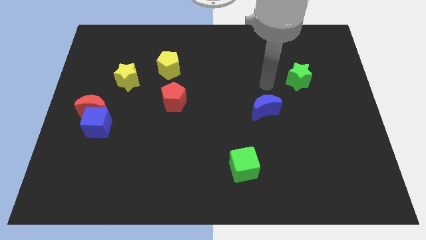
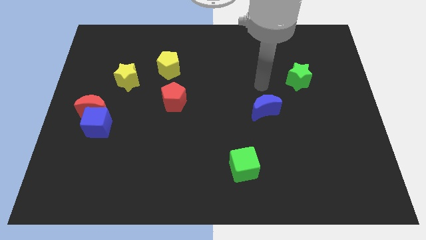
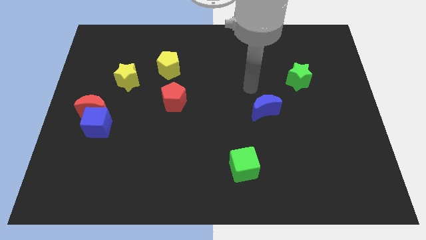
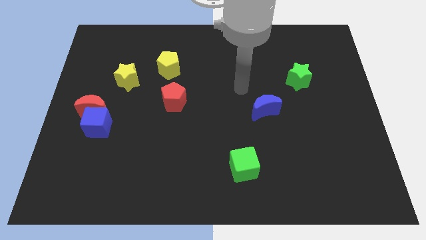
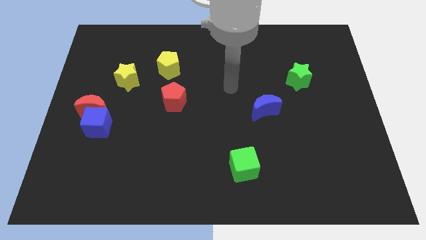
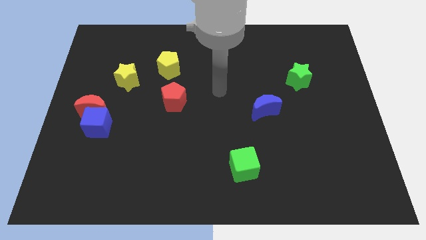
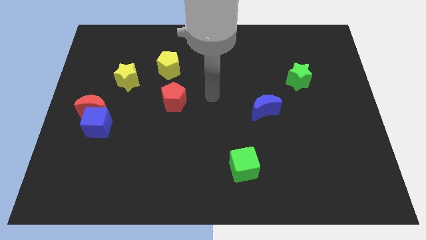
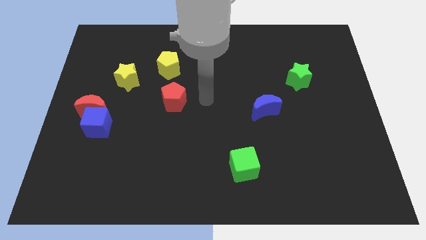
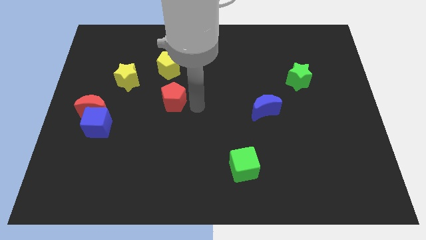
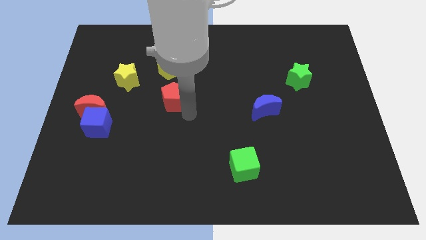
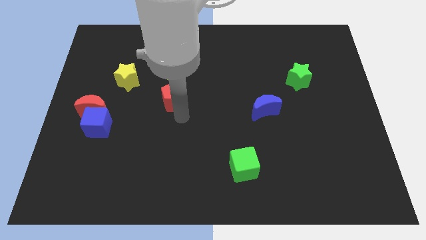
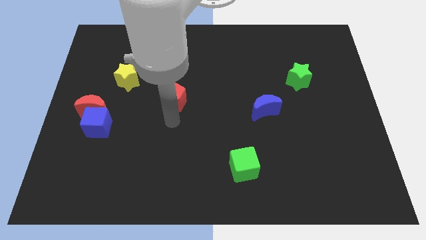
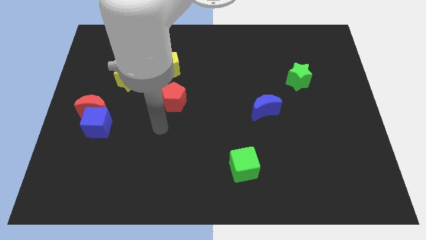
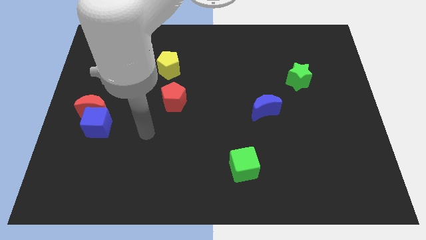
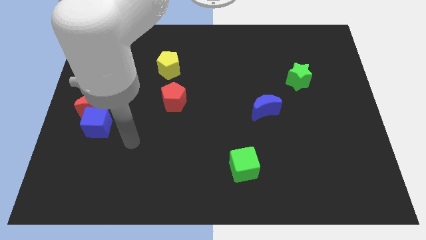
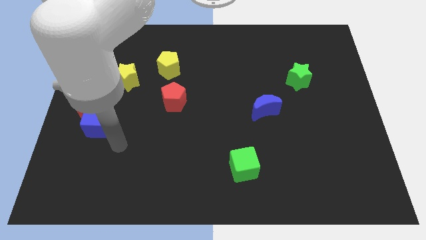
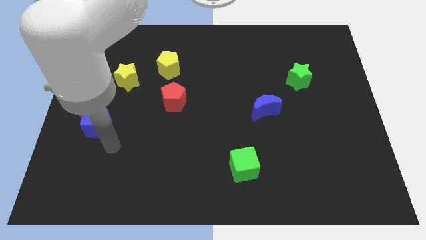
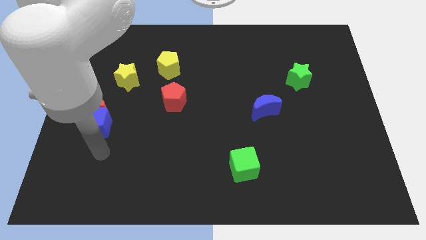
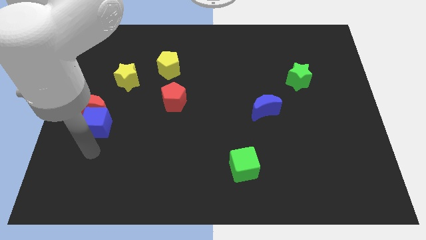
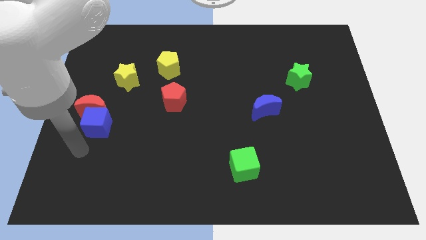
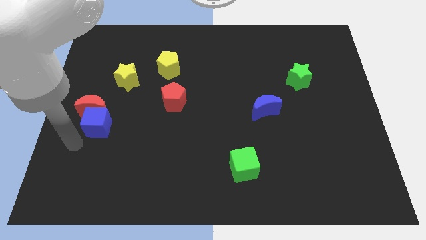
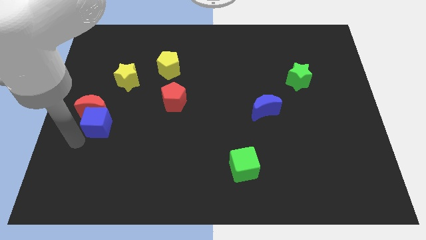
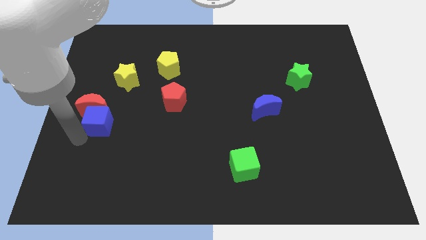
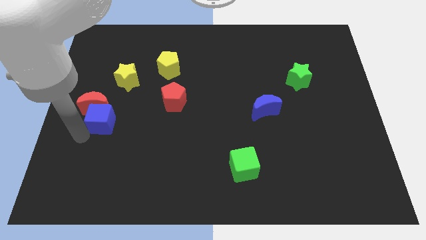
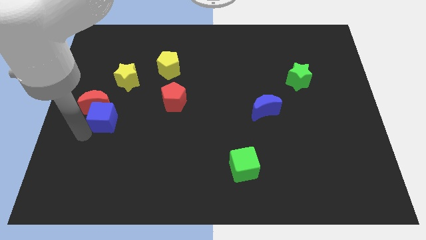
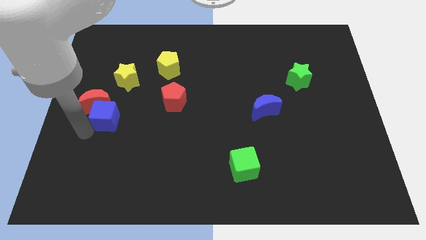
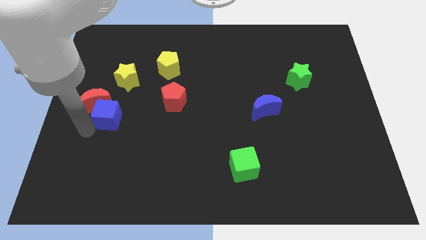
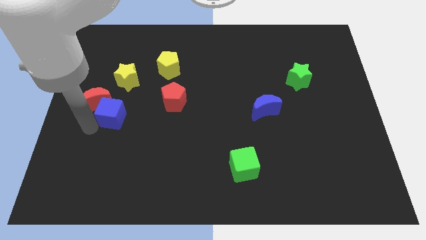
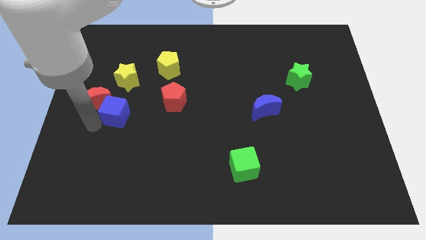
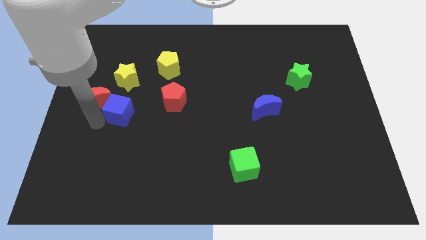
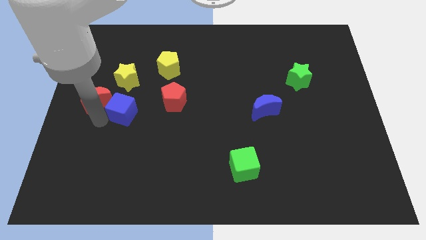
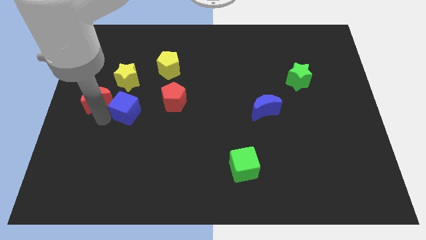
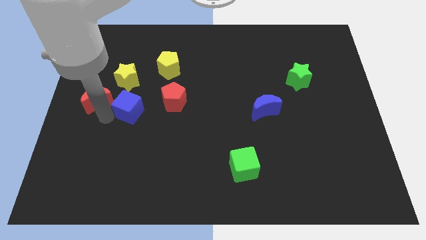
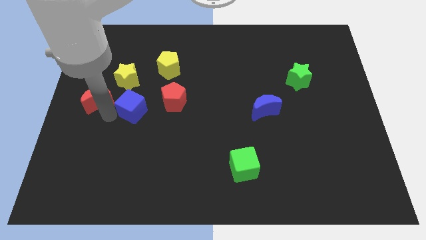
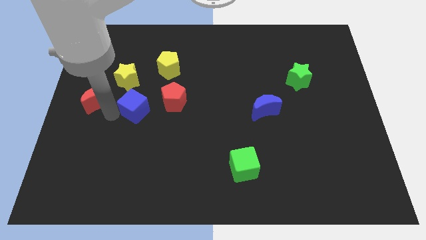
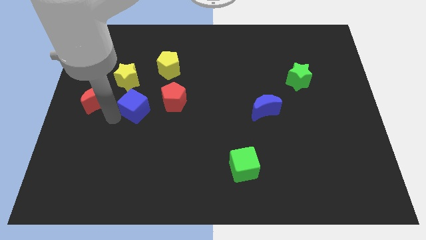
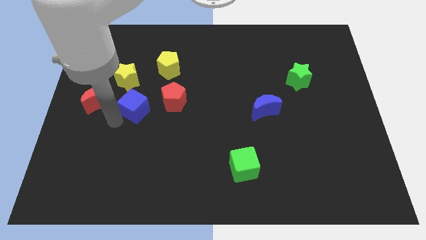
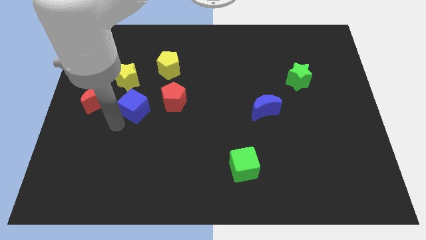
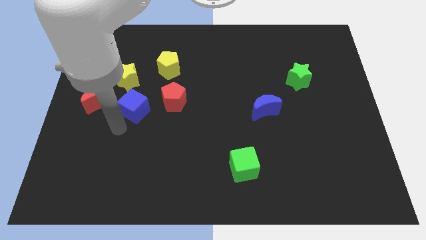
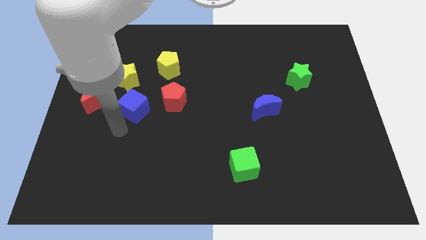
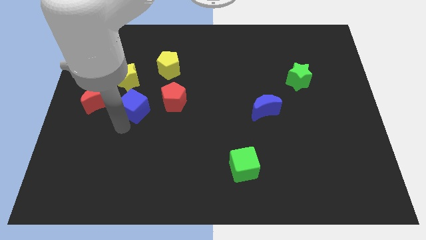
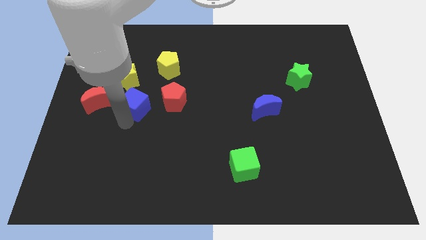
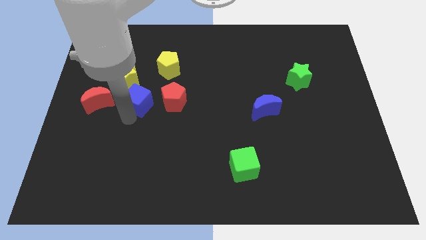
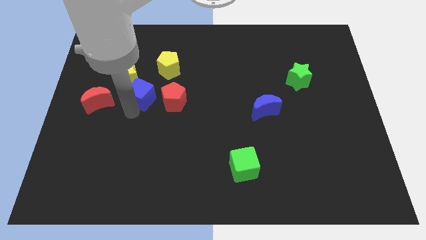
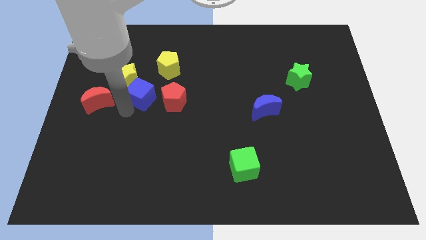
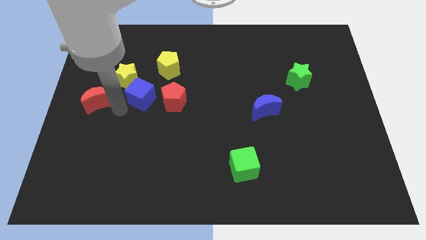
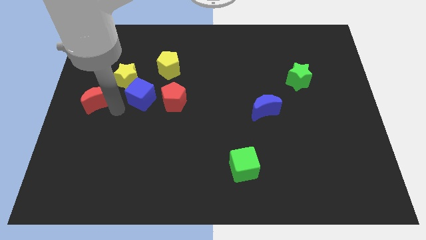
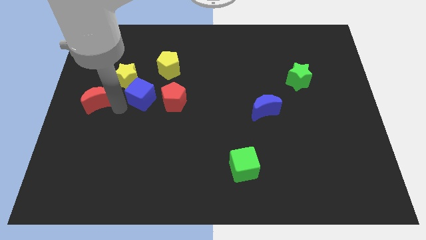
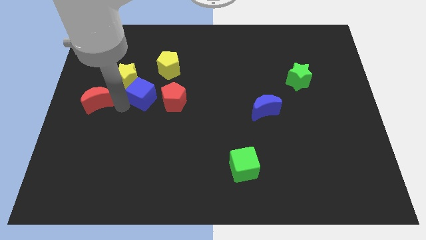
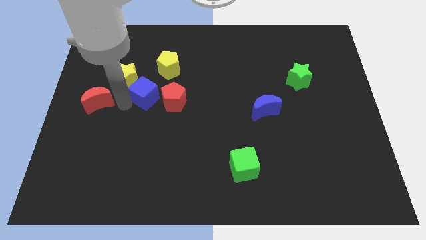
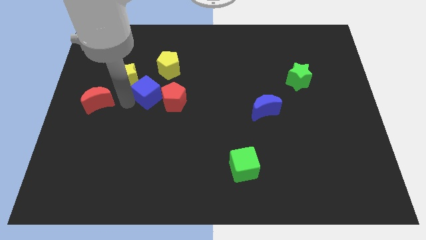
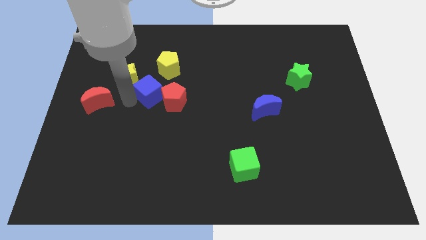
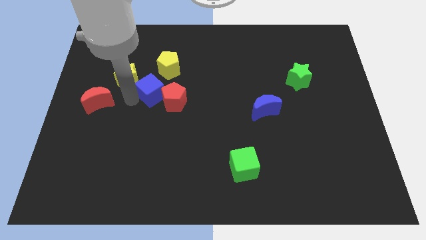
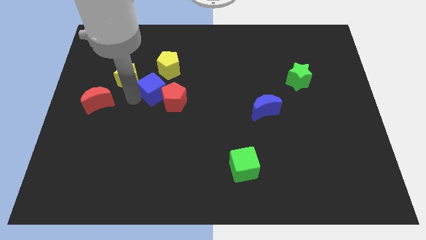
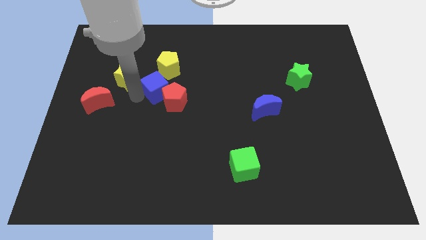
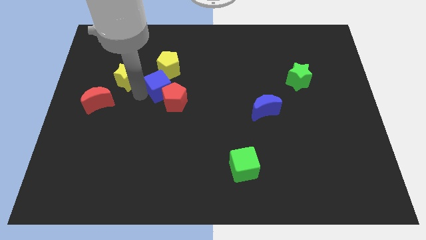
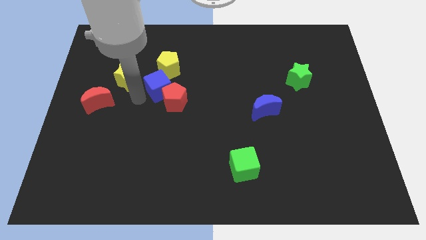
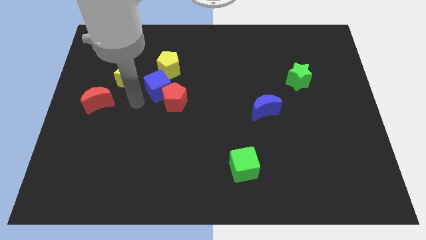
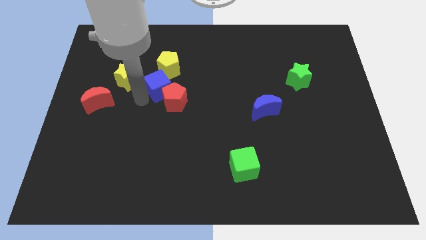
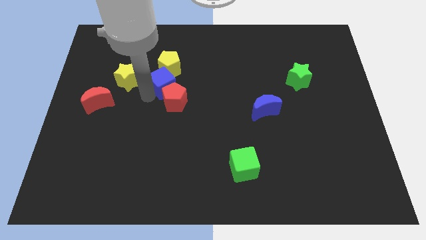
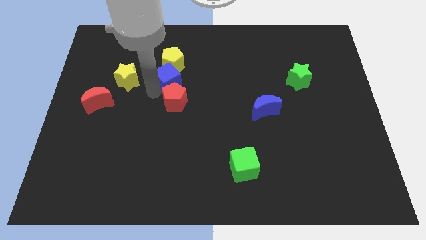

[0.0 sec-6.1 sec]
push the blue cube diagonally up and right

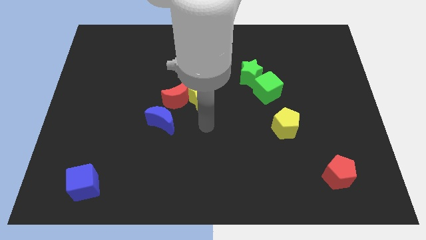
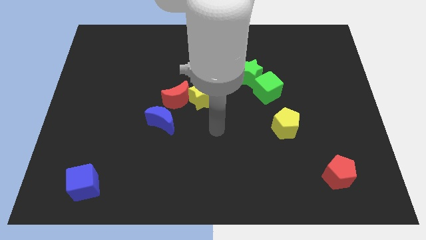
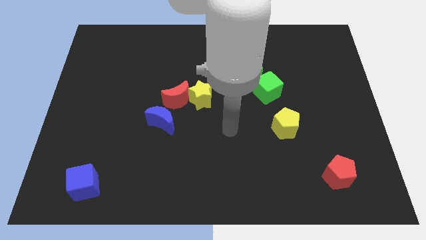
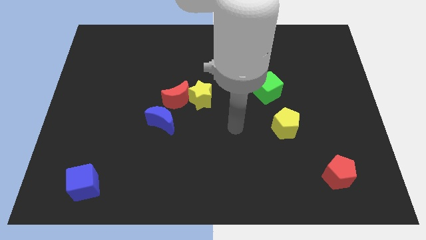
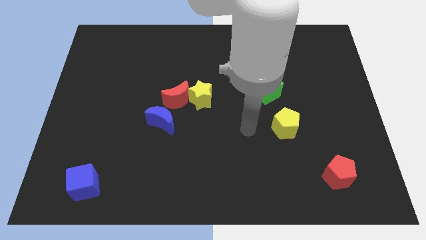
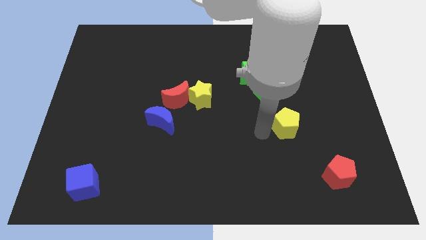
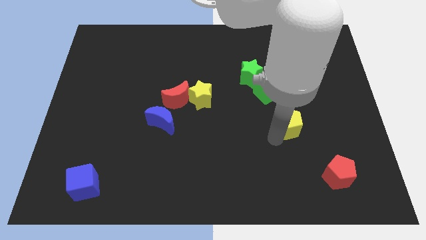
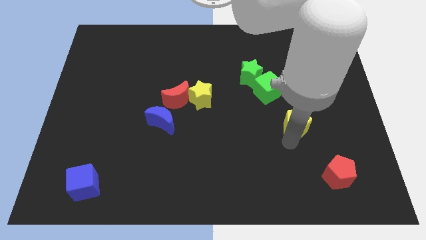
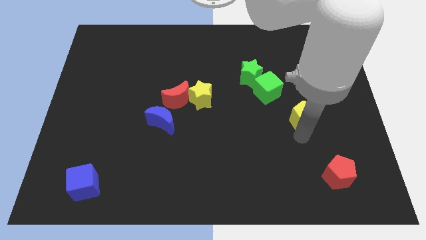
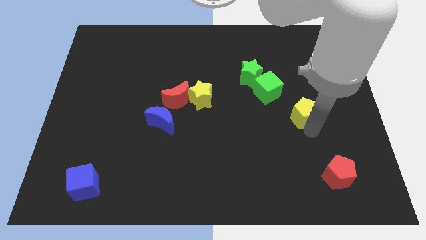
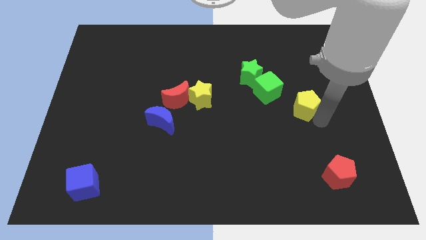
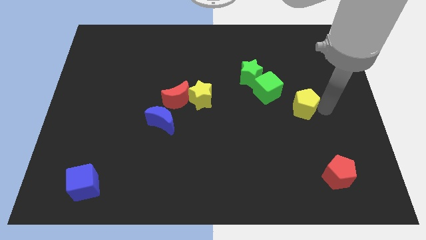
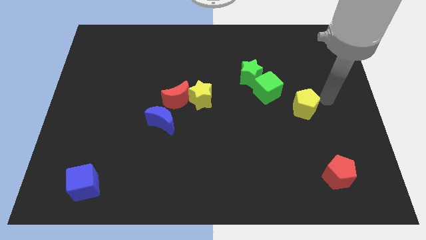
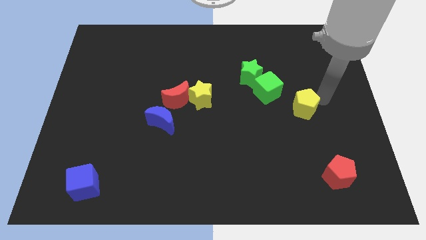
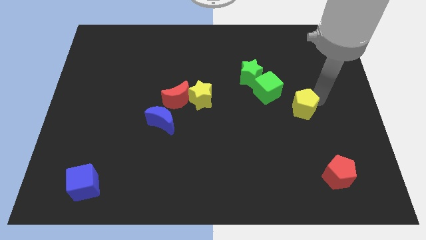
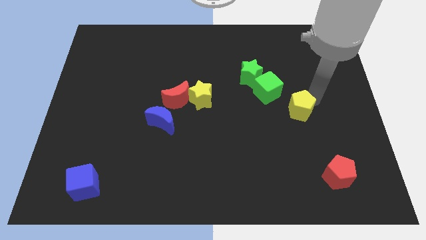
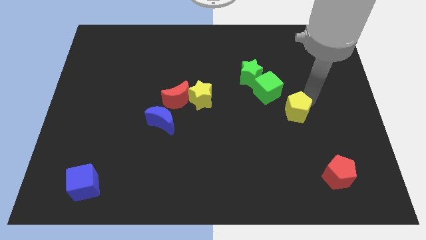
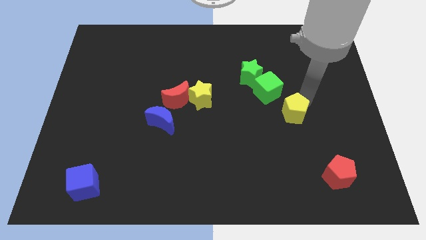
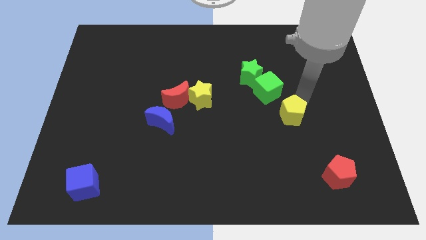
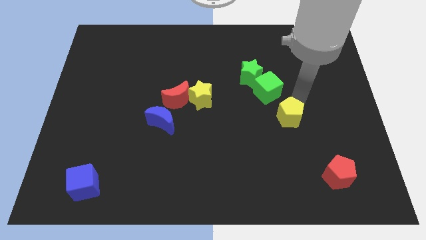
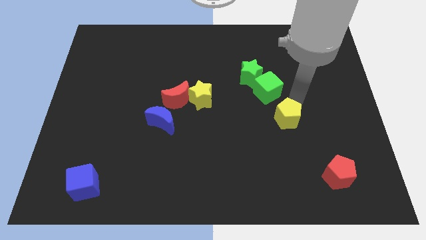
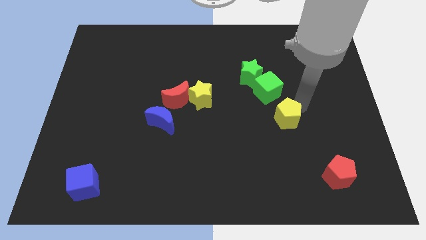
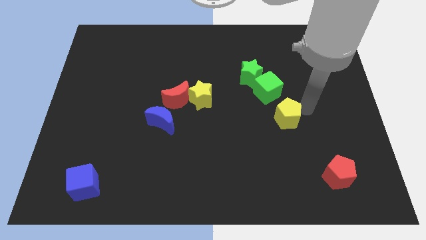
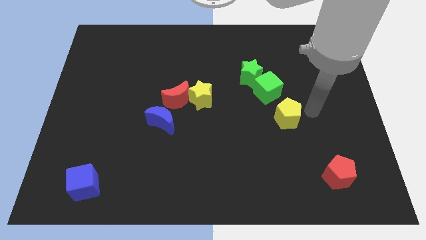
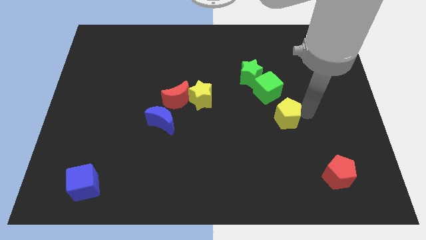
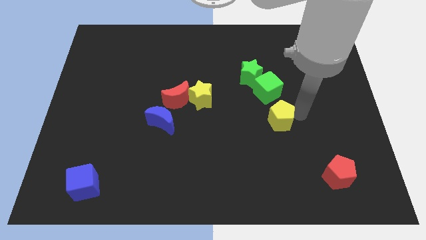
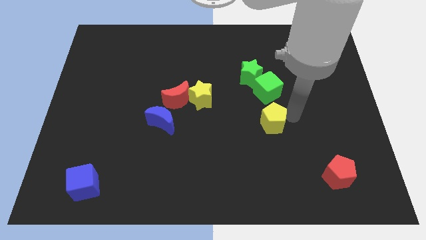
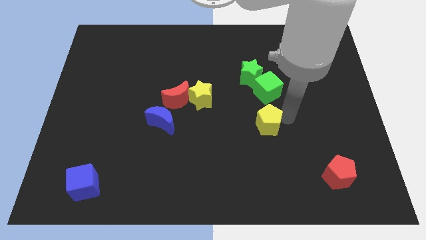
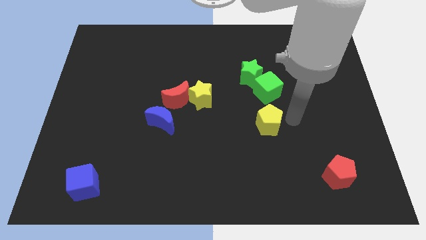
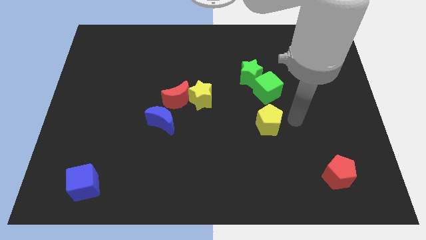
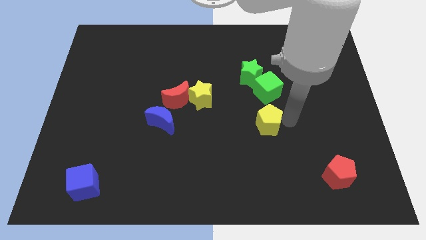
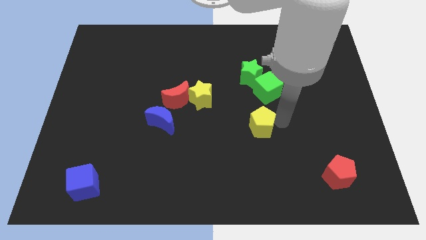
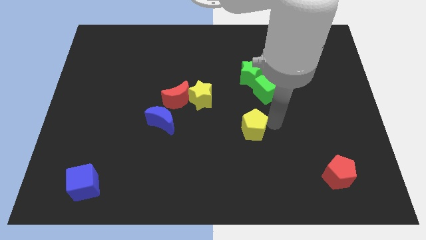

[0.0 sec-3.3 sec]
move the yellow pentagon left slightly
